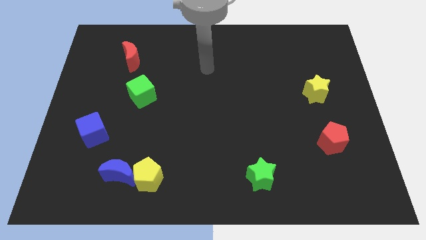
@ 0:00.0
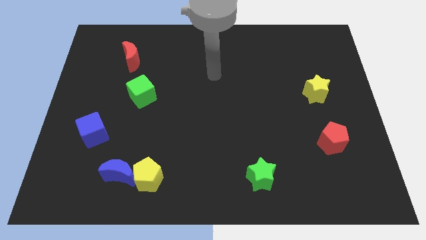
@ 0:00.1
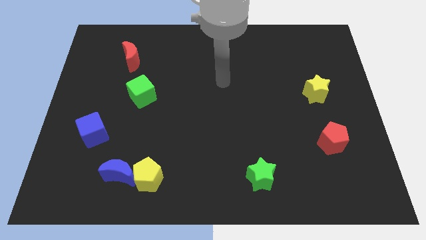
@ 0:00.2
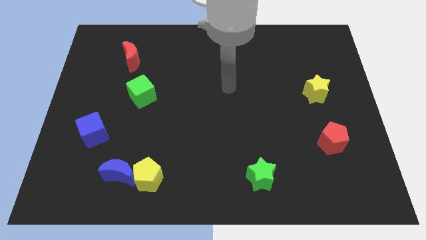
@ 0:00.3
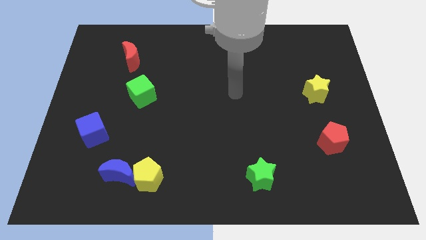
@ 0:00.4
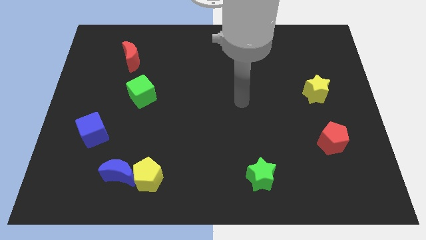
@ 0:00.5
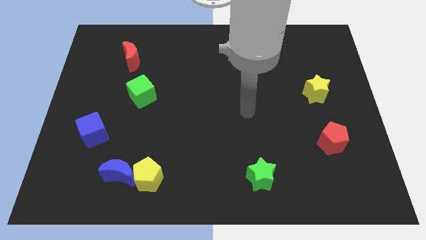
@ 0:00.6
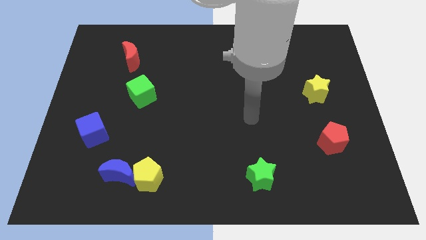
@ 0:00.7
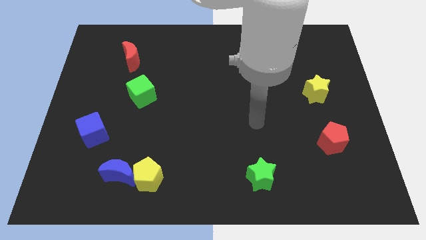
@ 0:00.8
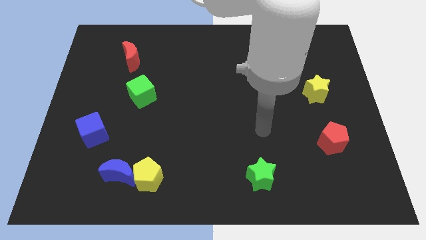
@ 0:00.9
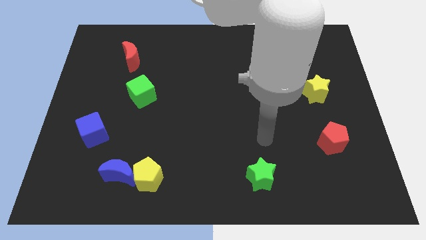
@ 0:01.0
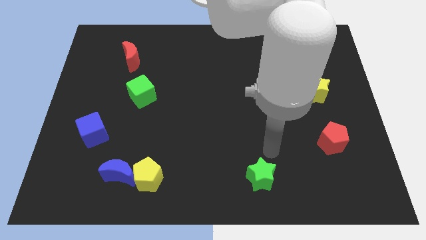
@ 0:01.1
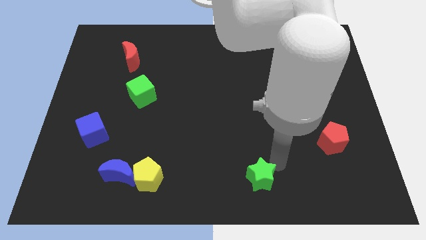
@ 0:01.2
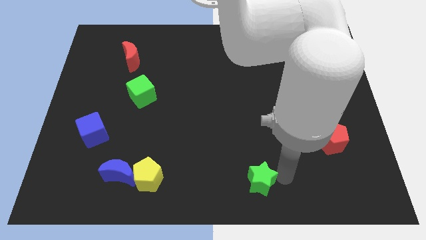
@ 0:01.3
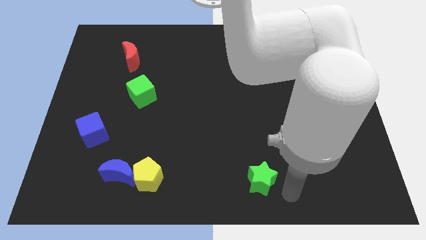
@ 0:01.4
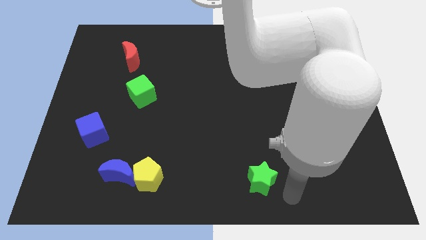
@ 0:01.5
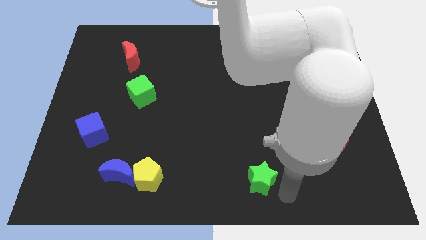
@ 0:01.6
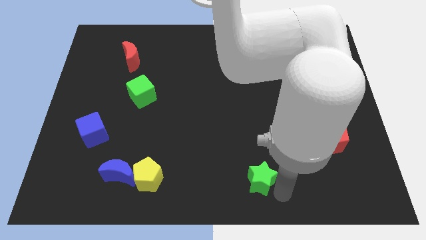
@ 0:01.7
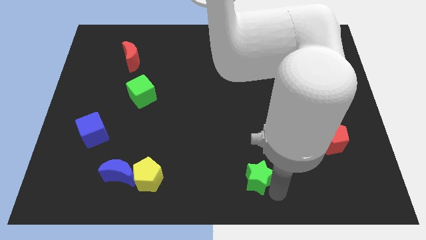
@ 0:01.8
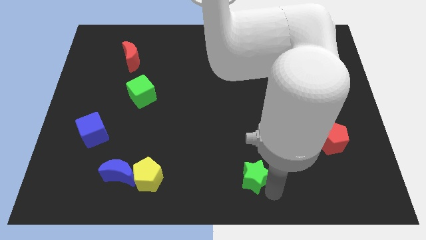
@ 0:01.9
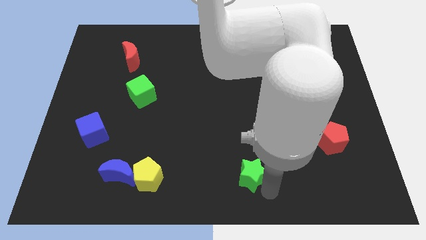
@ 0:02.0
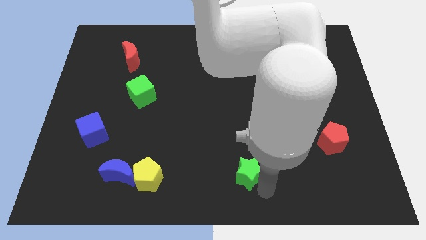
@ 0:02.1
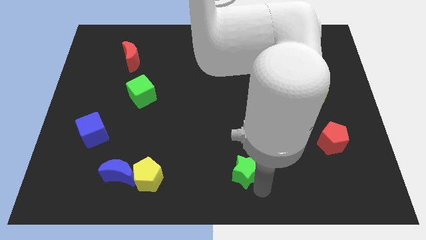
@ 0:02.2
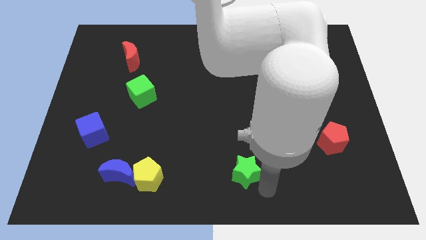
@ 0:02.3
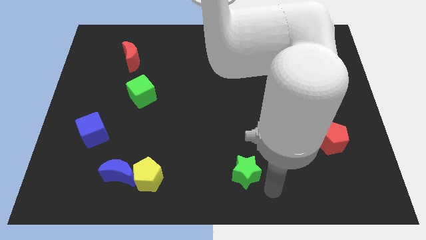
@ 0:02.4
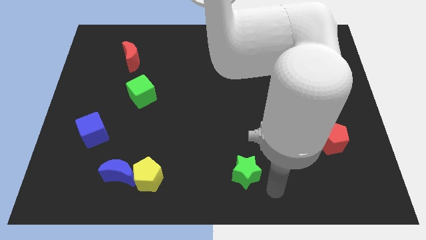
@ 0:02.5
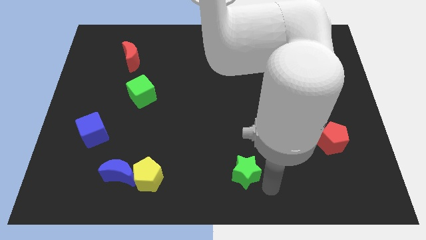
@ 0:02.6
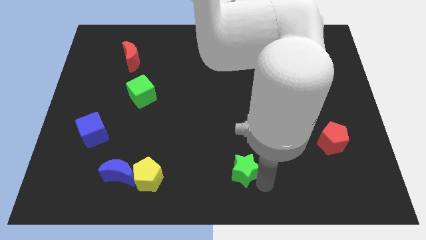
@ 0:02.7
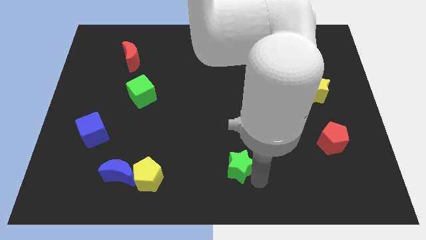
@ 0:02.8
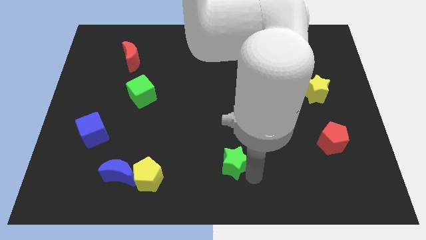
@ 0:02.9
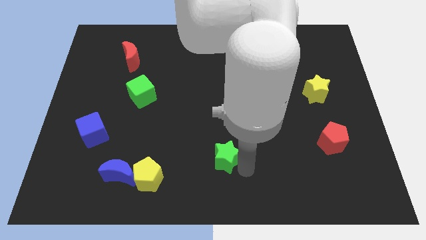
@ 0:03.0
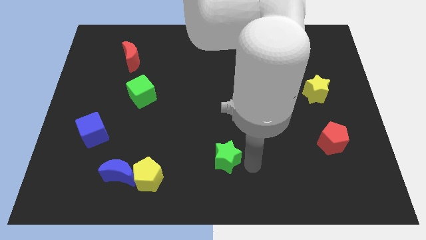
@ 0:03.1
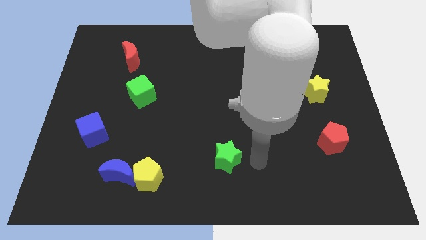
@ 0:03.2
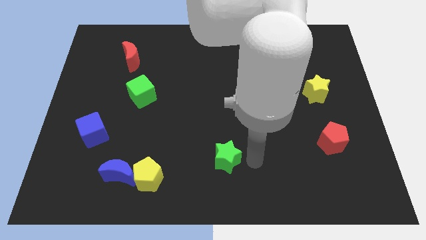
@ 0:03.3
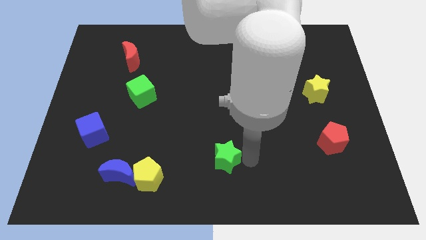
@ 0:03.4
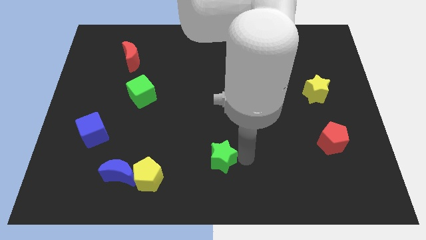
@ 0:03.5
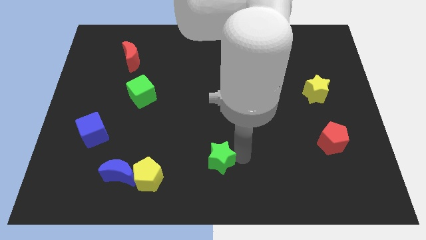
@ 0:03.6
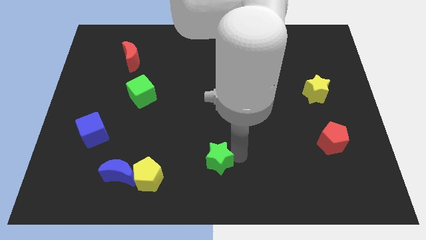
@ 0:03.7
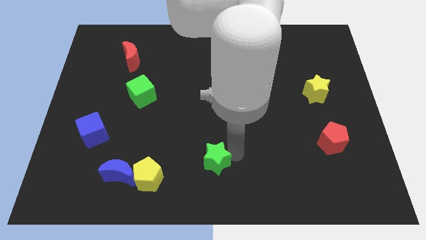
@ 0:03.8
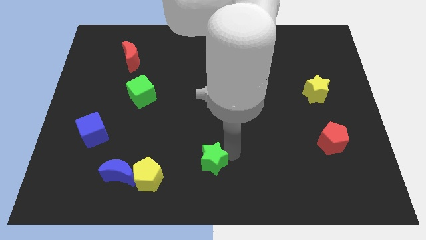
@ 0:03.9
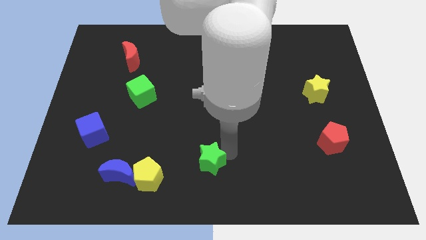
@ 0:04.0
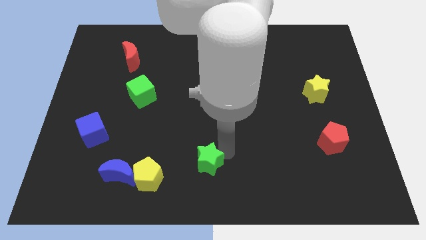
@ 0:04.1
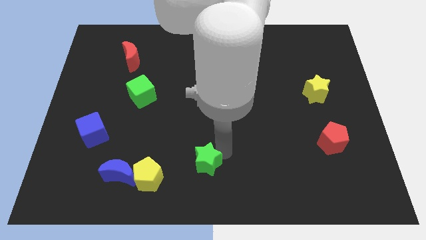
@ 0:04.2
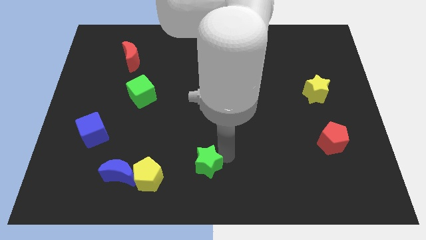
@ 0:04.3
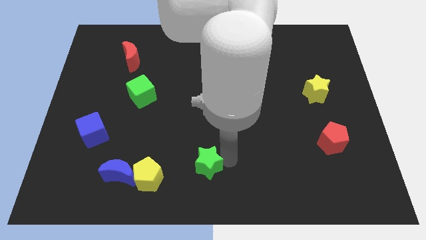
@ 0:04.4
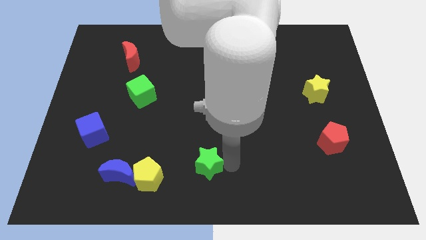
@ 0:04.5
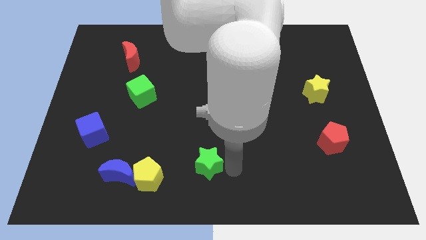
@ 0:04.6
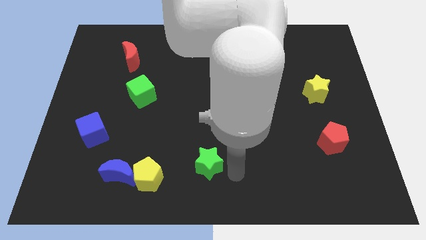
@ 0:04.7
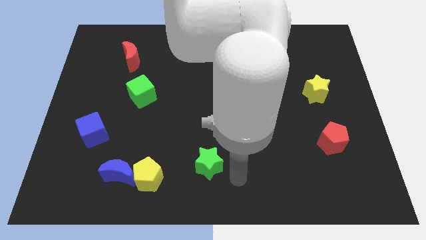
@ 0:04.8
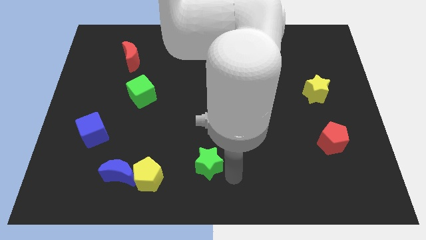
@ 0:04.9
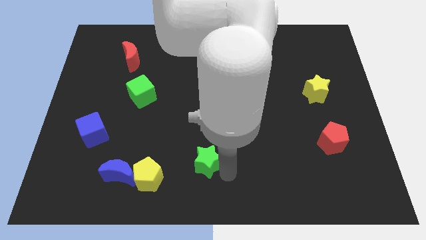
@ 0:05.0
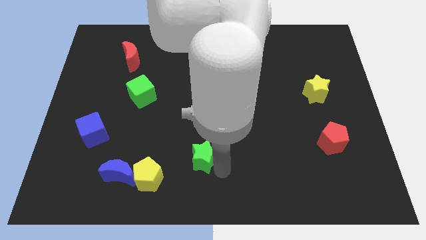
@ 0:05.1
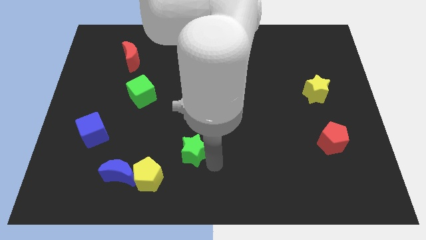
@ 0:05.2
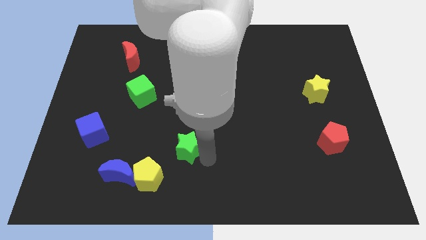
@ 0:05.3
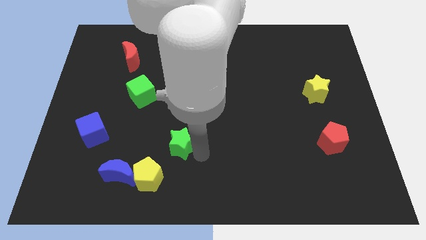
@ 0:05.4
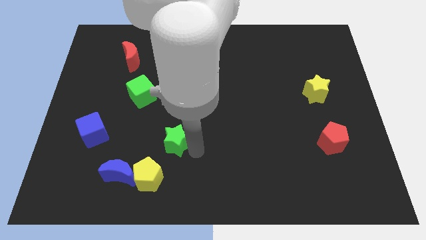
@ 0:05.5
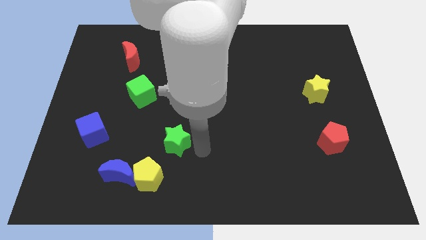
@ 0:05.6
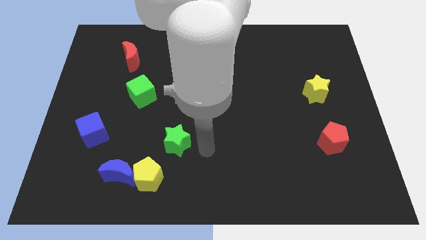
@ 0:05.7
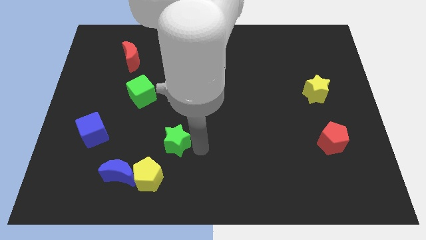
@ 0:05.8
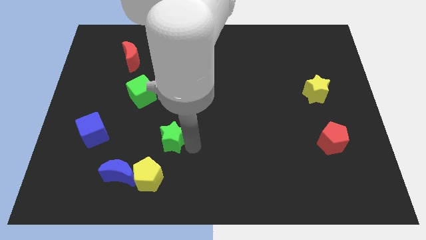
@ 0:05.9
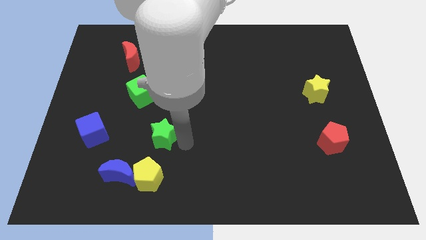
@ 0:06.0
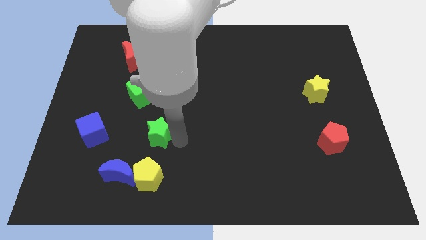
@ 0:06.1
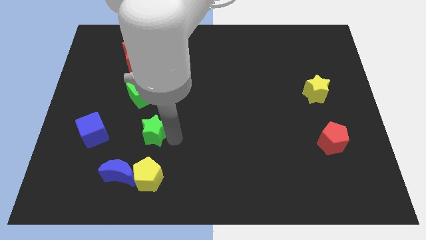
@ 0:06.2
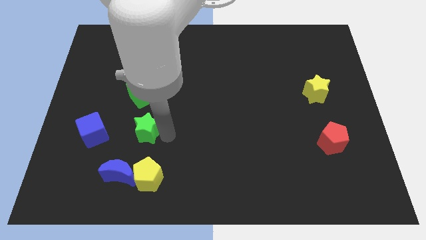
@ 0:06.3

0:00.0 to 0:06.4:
slide the green star to the top side of the blue moon

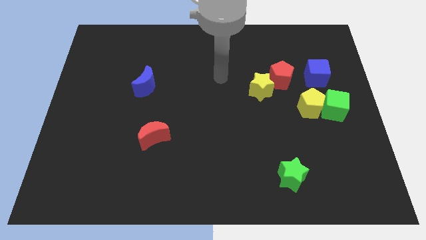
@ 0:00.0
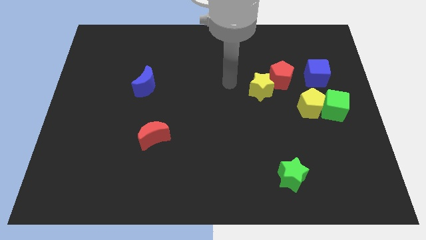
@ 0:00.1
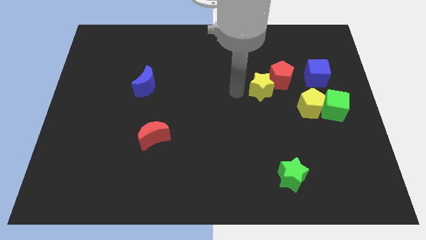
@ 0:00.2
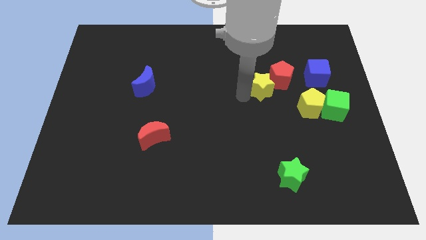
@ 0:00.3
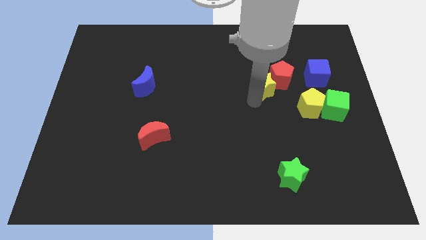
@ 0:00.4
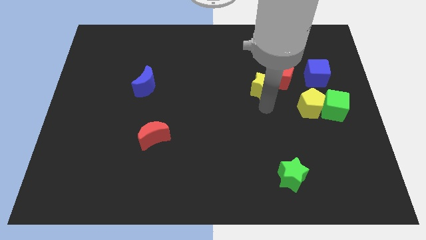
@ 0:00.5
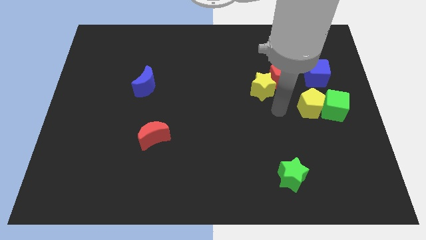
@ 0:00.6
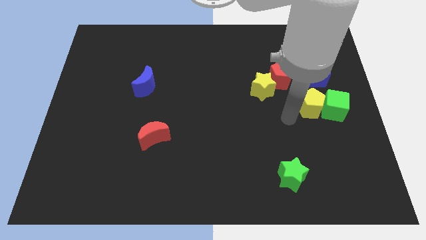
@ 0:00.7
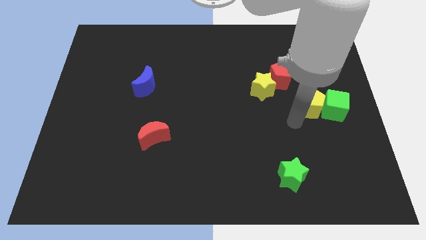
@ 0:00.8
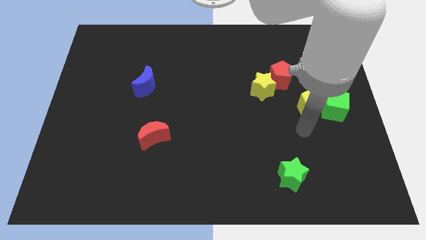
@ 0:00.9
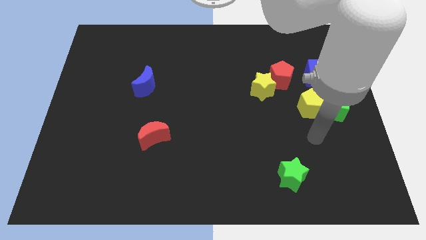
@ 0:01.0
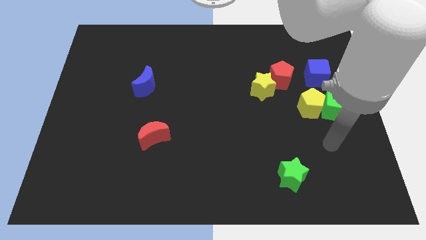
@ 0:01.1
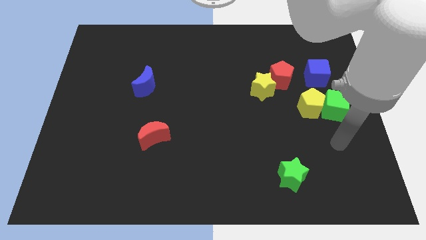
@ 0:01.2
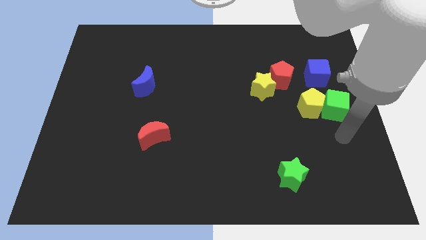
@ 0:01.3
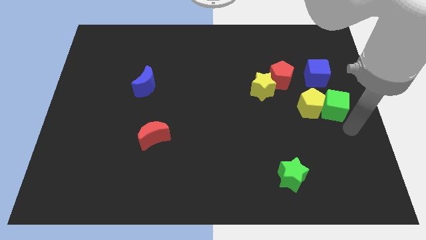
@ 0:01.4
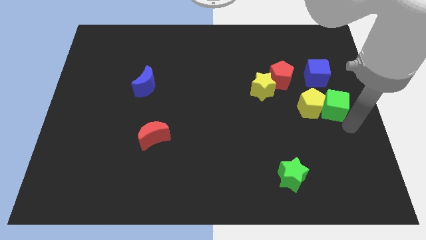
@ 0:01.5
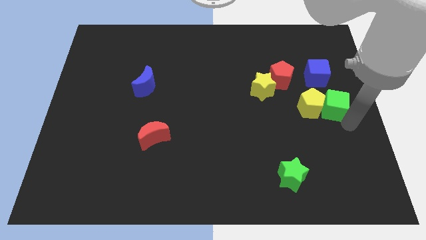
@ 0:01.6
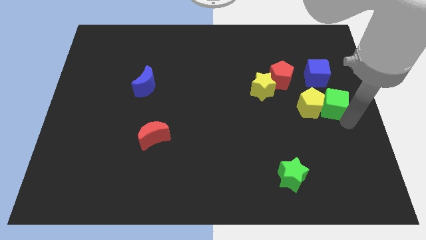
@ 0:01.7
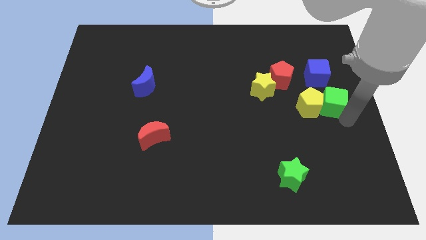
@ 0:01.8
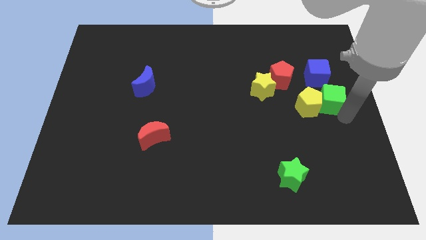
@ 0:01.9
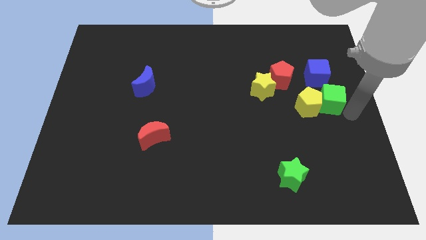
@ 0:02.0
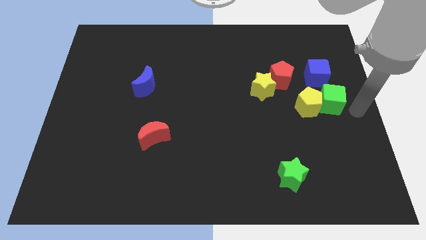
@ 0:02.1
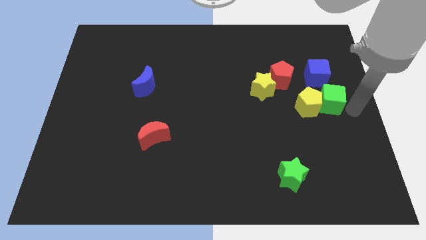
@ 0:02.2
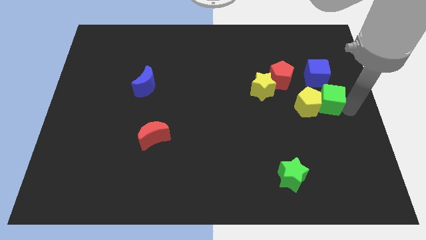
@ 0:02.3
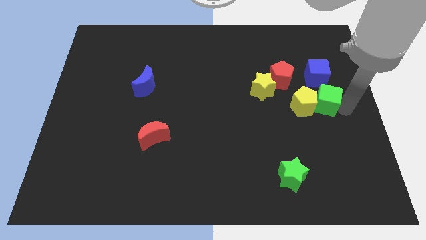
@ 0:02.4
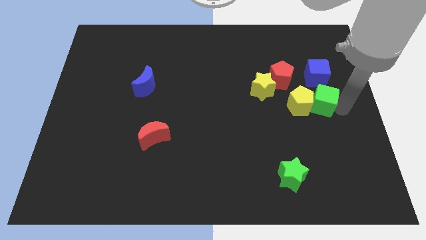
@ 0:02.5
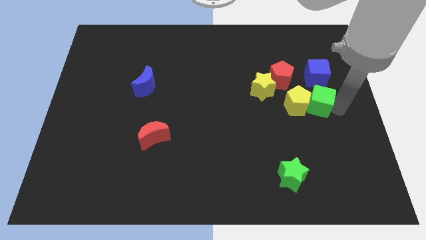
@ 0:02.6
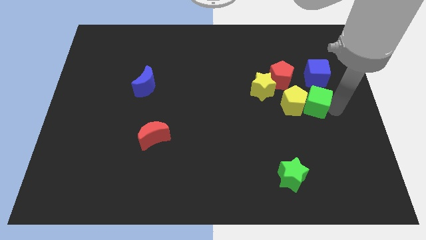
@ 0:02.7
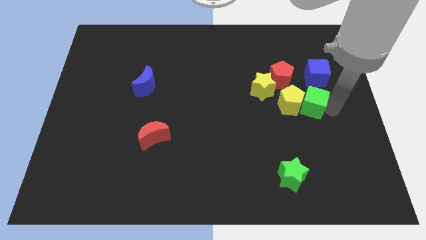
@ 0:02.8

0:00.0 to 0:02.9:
move the green cube to the bottom left side of the blue cube
